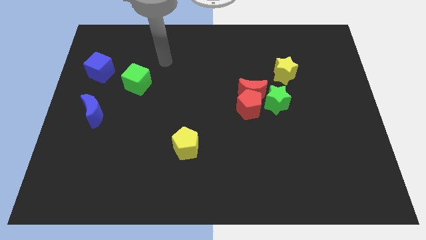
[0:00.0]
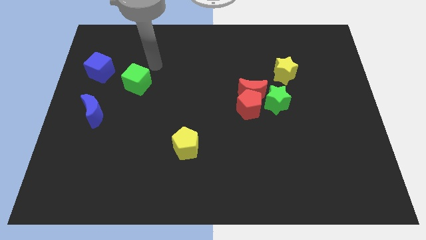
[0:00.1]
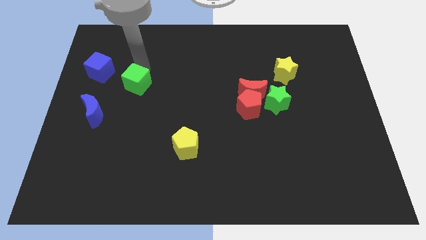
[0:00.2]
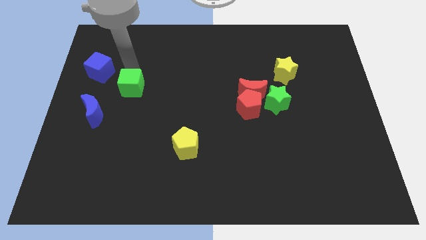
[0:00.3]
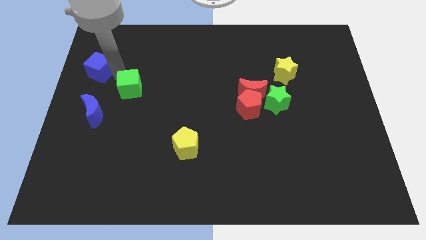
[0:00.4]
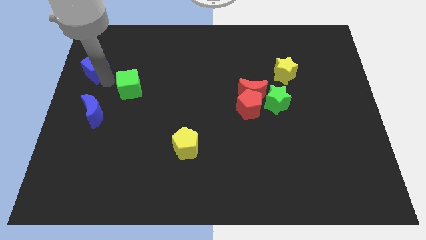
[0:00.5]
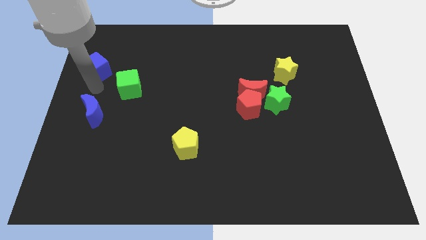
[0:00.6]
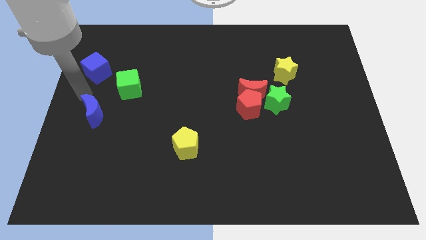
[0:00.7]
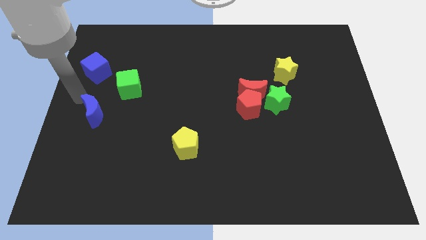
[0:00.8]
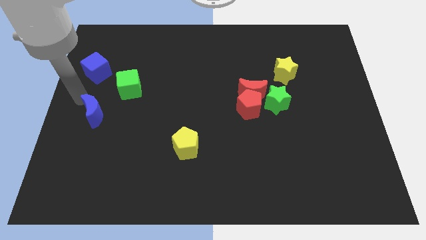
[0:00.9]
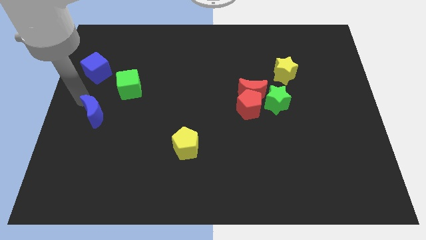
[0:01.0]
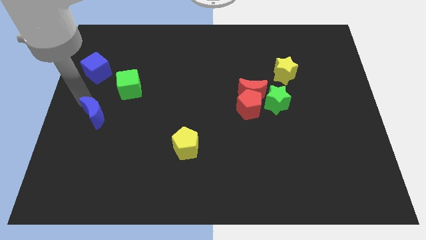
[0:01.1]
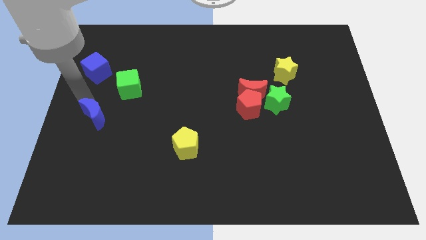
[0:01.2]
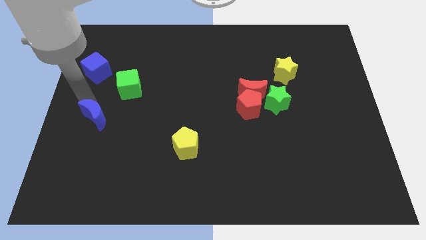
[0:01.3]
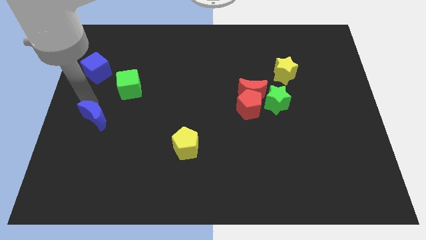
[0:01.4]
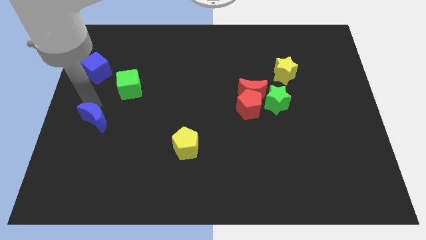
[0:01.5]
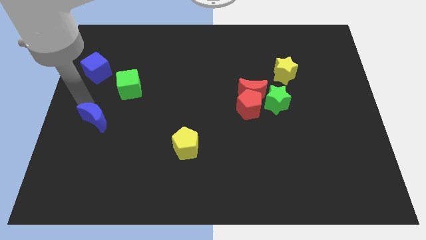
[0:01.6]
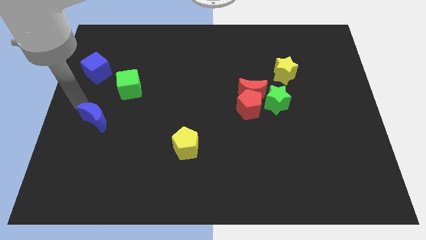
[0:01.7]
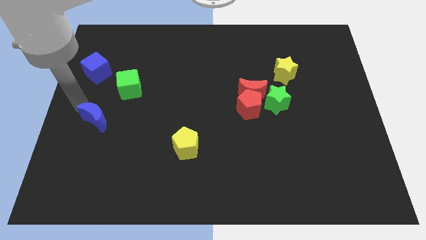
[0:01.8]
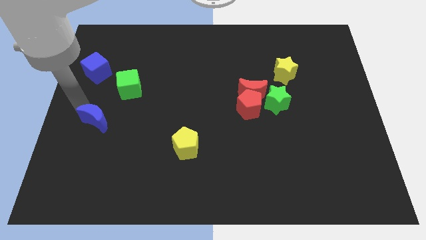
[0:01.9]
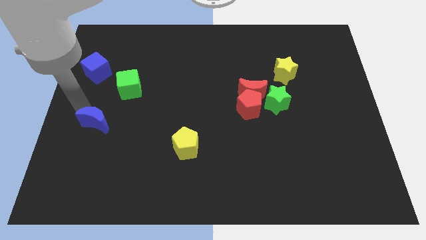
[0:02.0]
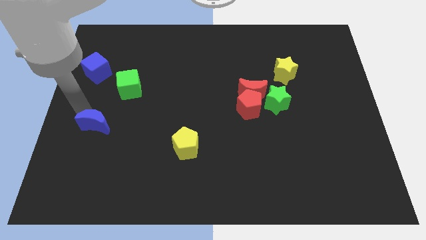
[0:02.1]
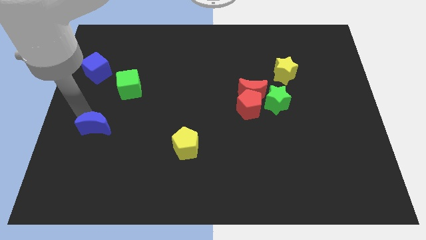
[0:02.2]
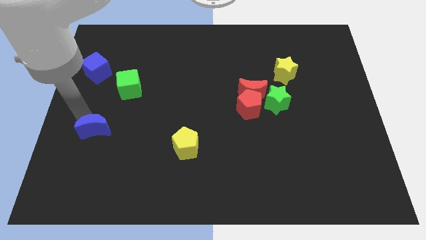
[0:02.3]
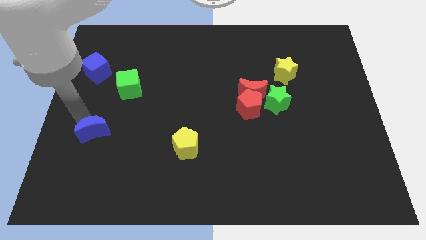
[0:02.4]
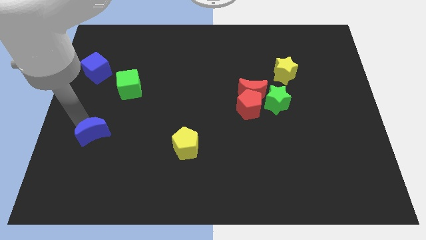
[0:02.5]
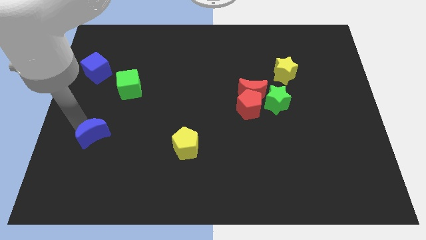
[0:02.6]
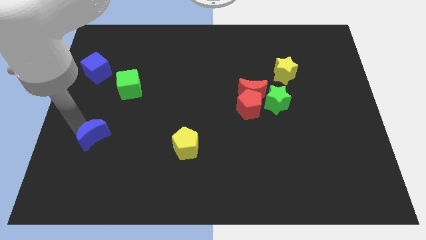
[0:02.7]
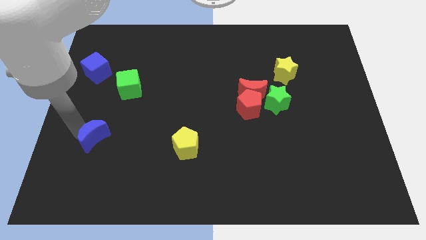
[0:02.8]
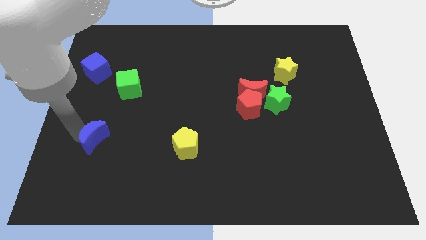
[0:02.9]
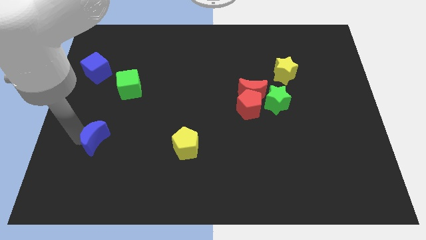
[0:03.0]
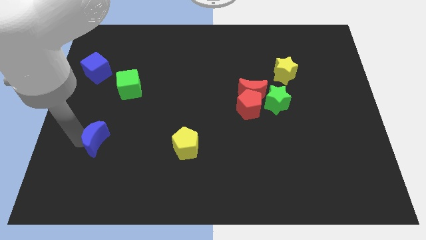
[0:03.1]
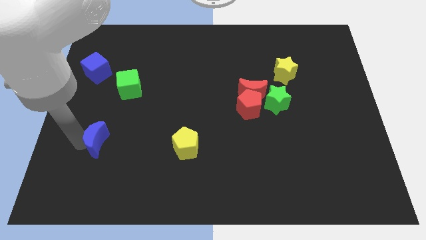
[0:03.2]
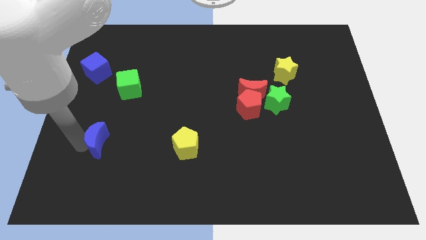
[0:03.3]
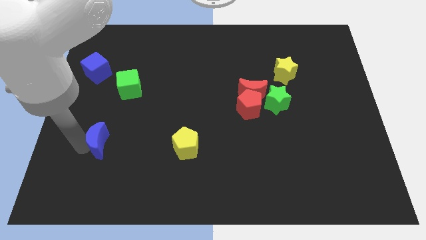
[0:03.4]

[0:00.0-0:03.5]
push the blue moon somewhat down and to the right

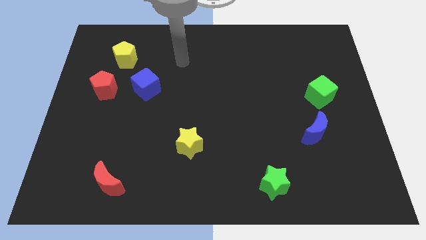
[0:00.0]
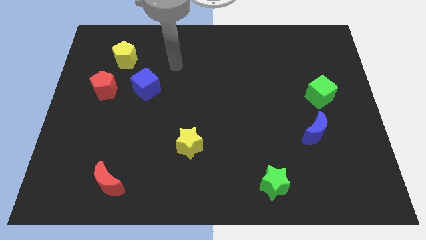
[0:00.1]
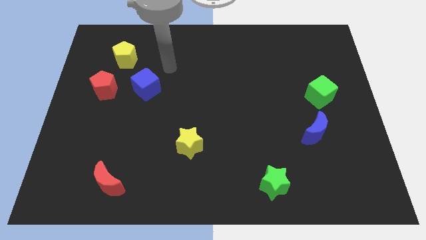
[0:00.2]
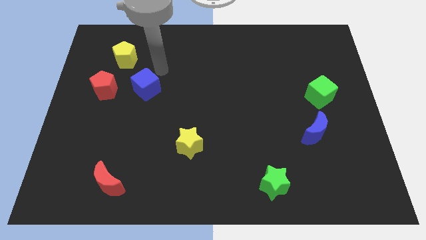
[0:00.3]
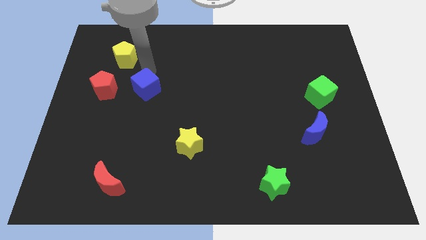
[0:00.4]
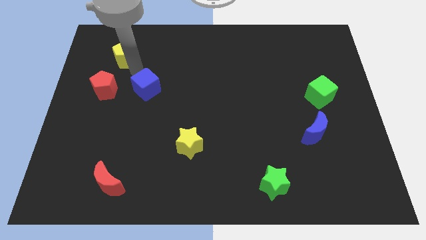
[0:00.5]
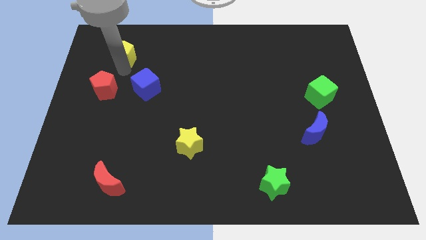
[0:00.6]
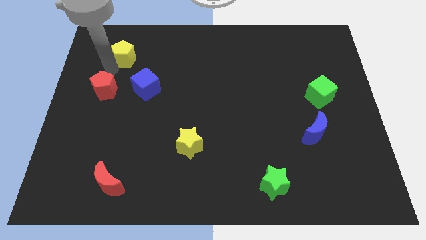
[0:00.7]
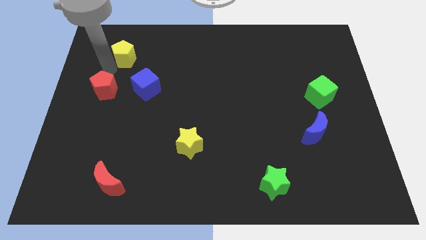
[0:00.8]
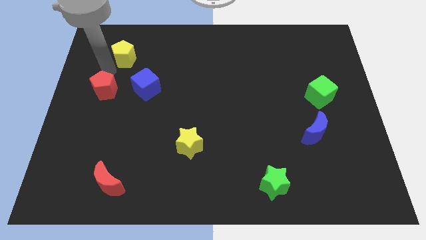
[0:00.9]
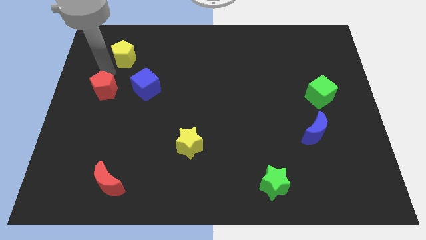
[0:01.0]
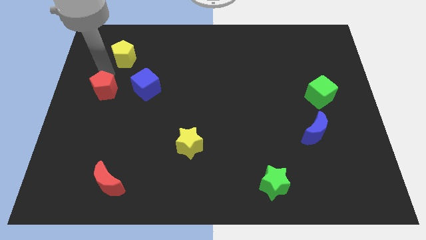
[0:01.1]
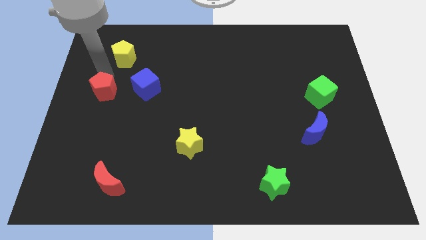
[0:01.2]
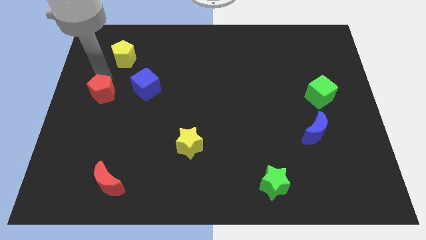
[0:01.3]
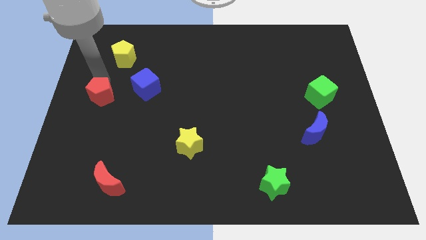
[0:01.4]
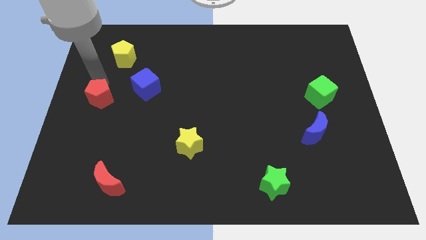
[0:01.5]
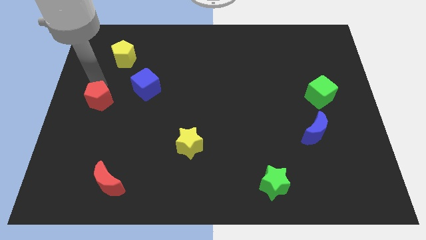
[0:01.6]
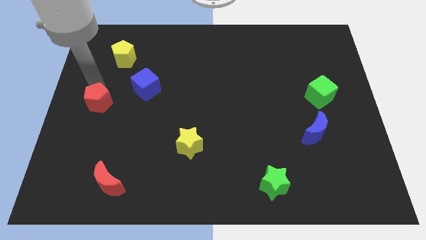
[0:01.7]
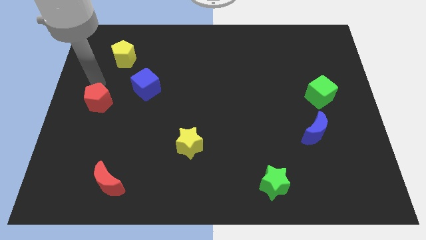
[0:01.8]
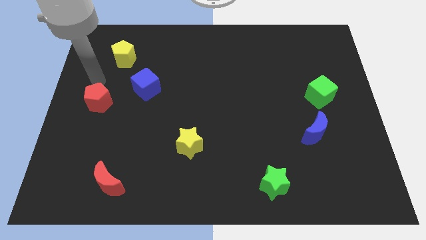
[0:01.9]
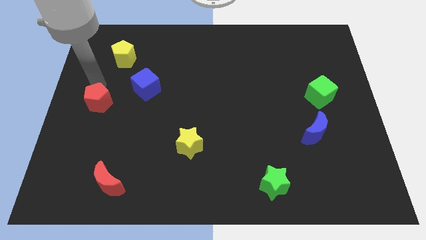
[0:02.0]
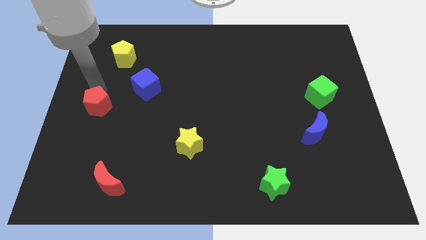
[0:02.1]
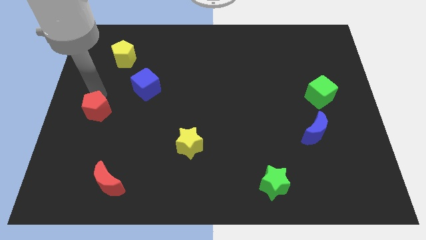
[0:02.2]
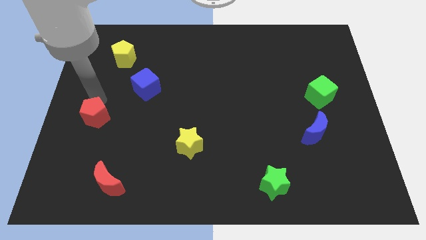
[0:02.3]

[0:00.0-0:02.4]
slightly move the red pentagon down

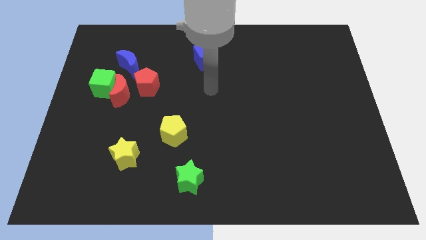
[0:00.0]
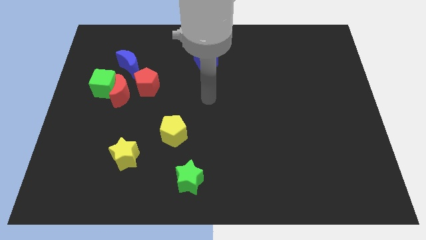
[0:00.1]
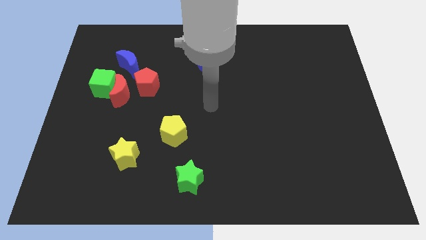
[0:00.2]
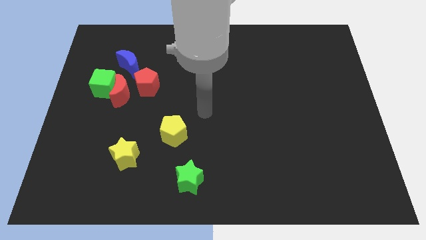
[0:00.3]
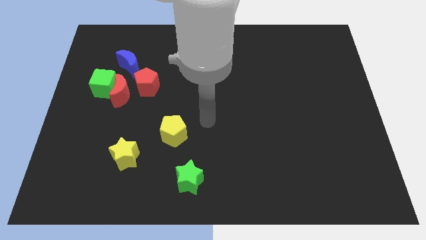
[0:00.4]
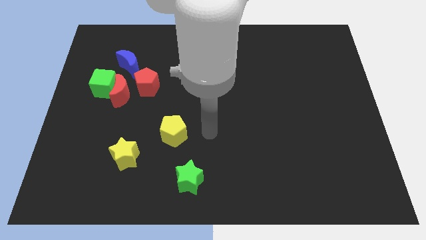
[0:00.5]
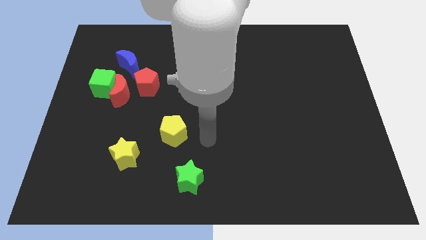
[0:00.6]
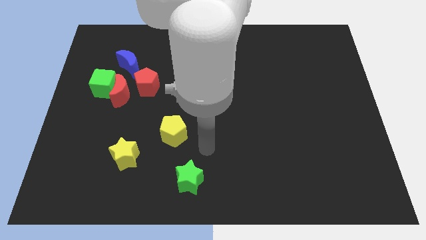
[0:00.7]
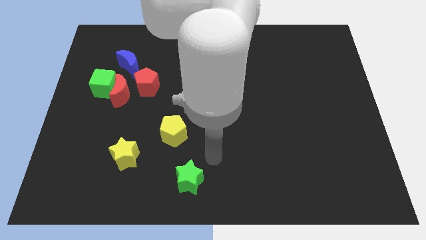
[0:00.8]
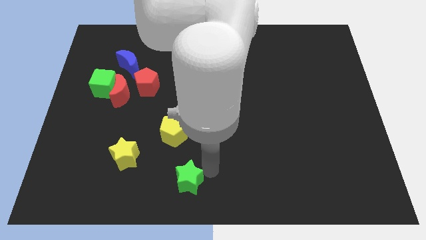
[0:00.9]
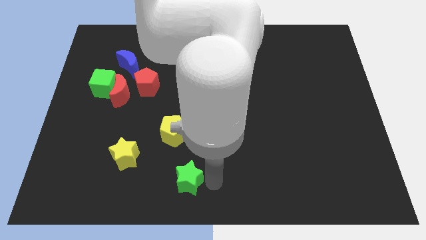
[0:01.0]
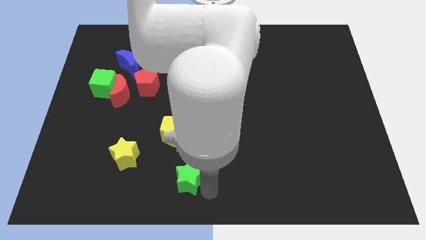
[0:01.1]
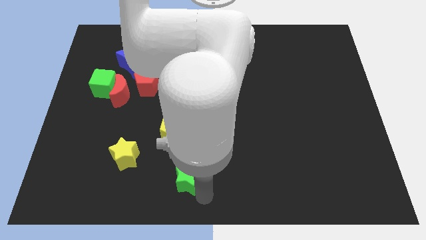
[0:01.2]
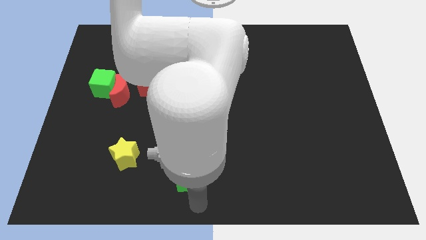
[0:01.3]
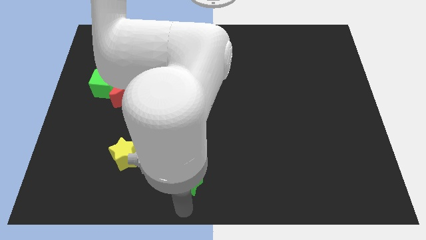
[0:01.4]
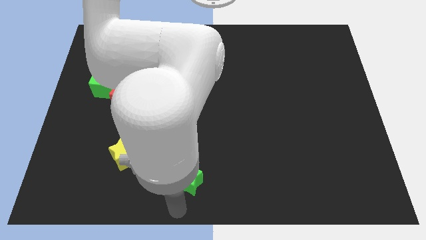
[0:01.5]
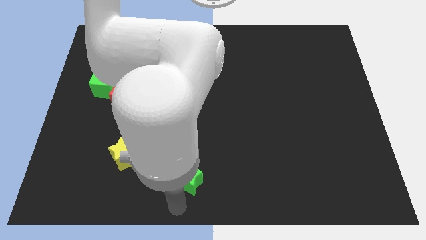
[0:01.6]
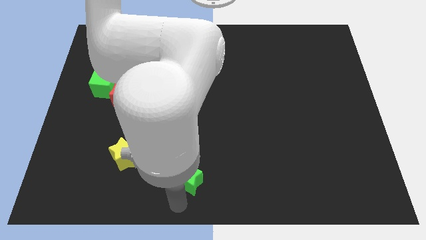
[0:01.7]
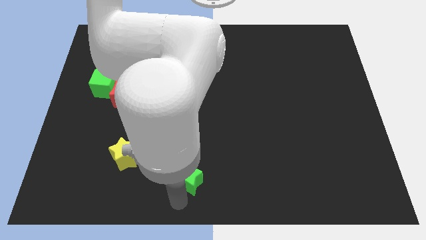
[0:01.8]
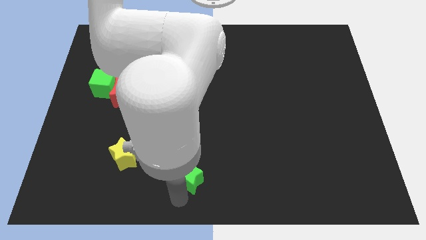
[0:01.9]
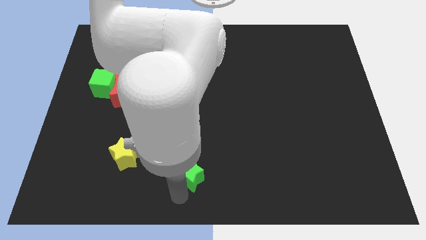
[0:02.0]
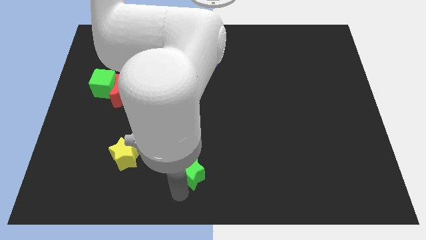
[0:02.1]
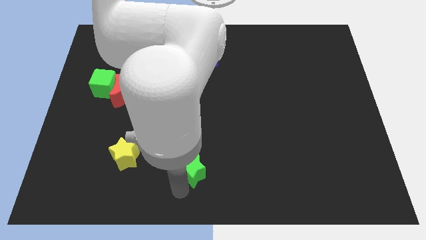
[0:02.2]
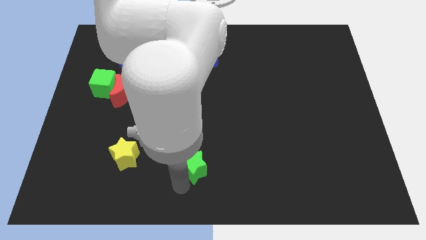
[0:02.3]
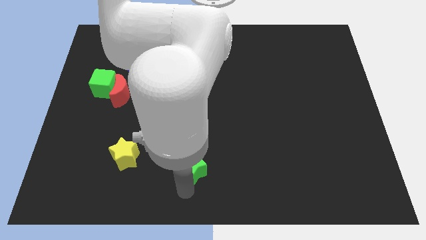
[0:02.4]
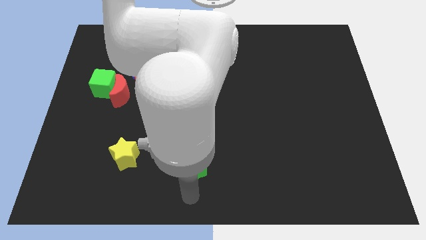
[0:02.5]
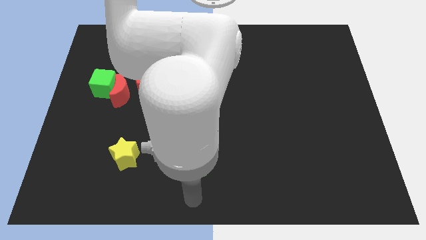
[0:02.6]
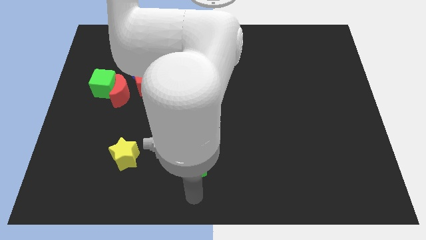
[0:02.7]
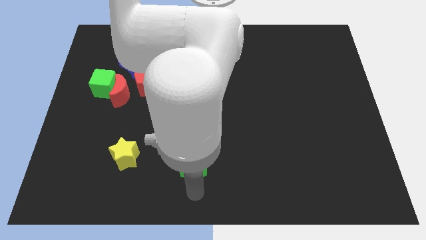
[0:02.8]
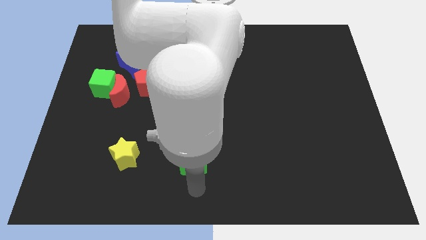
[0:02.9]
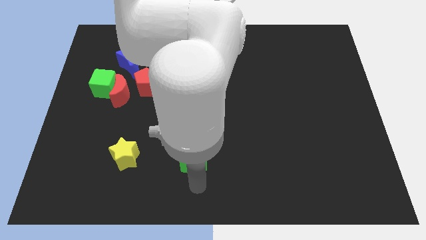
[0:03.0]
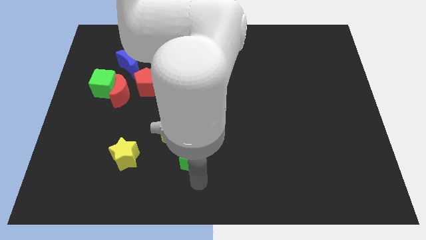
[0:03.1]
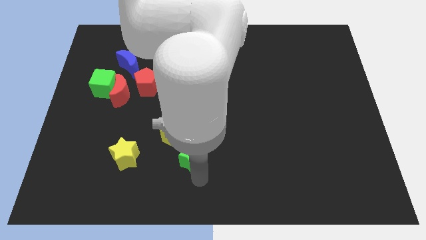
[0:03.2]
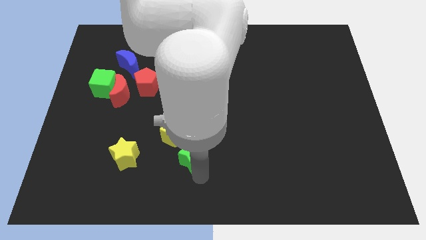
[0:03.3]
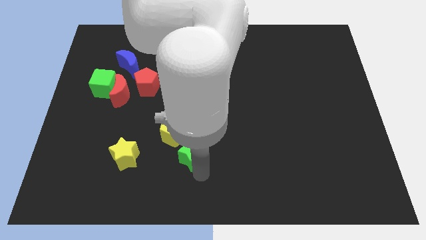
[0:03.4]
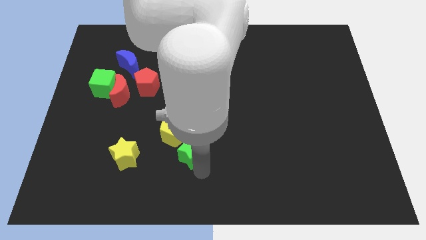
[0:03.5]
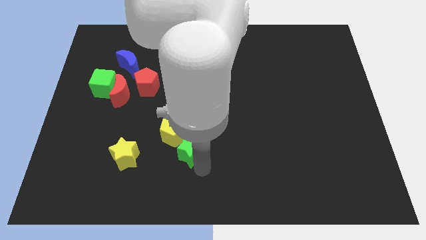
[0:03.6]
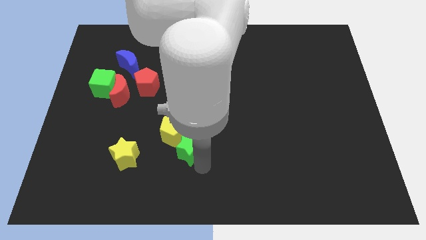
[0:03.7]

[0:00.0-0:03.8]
move the green star a bit up
